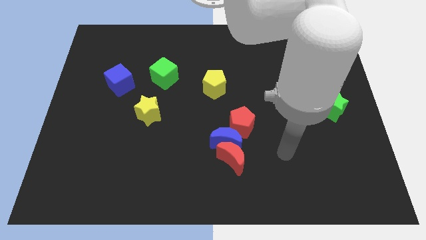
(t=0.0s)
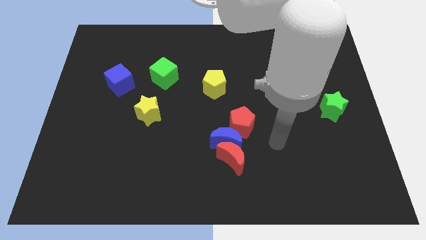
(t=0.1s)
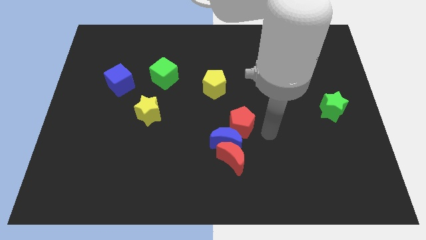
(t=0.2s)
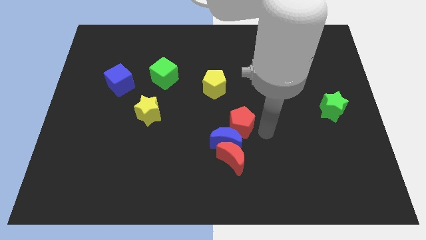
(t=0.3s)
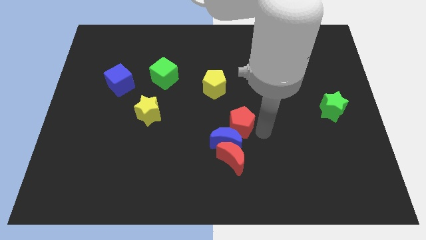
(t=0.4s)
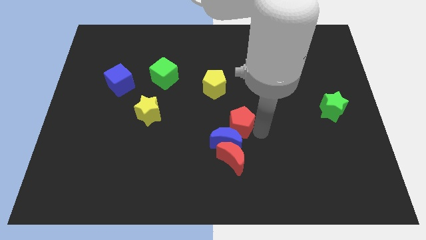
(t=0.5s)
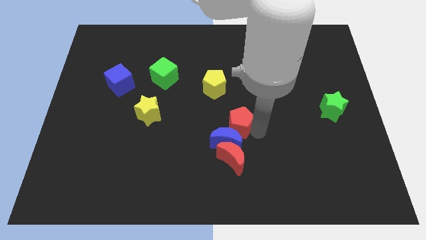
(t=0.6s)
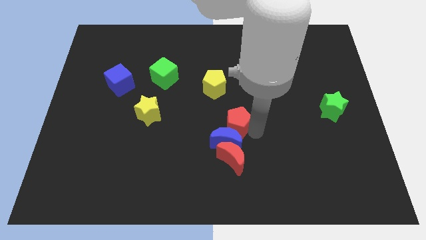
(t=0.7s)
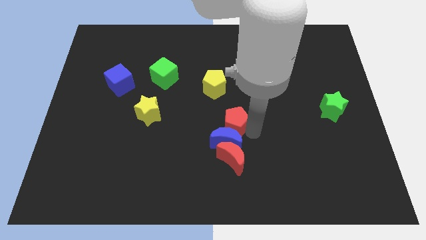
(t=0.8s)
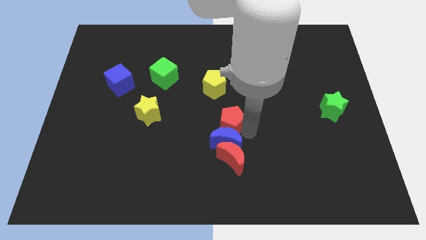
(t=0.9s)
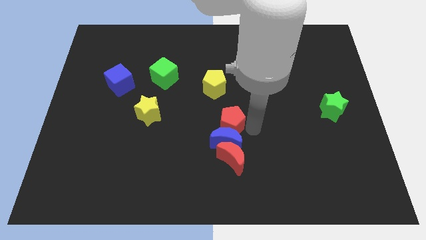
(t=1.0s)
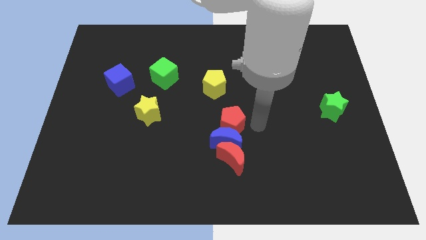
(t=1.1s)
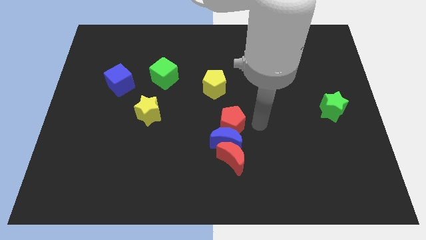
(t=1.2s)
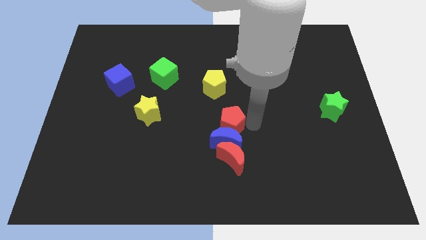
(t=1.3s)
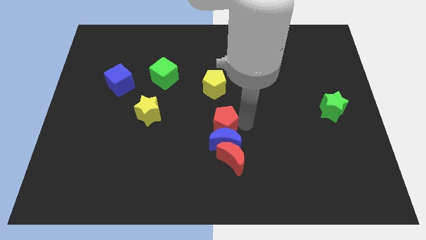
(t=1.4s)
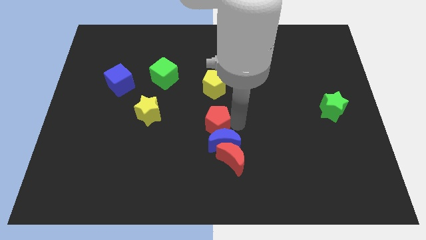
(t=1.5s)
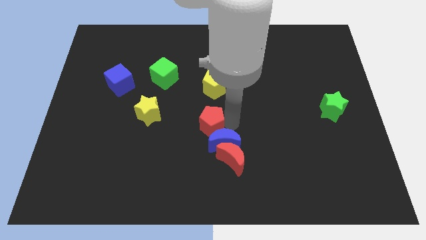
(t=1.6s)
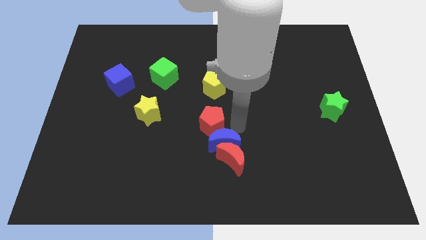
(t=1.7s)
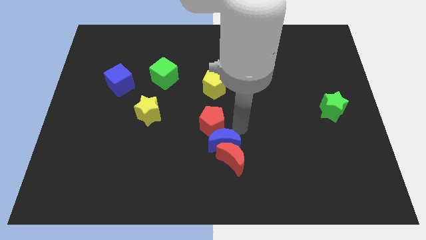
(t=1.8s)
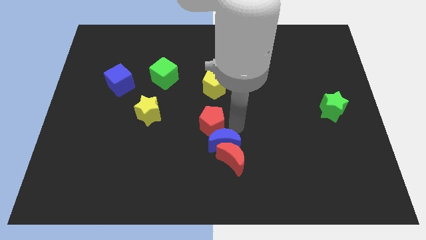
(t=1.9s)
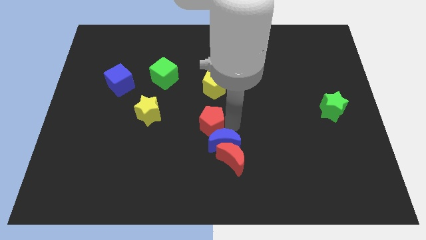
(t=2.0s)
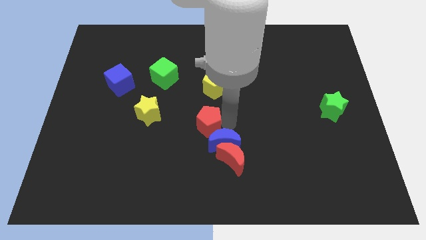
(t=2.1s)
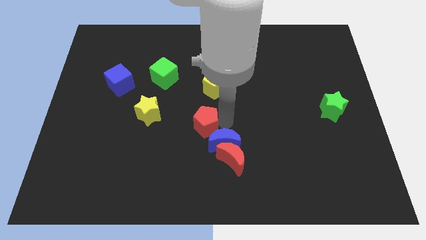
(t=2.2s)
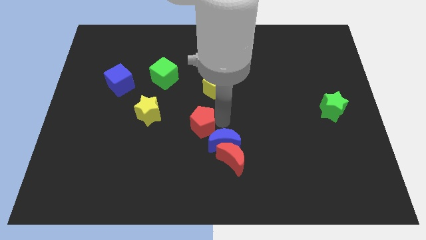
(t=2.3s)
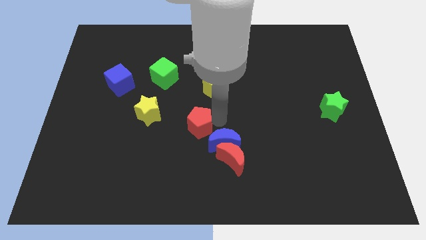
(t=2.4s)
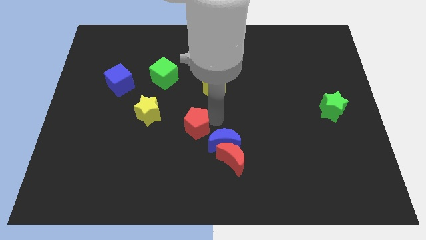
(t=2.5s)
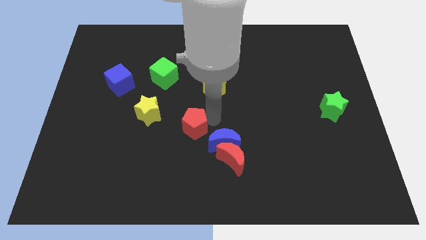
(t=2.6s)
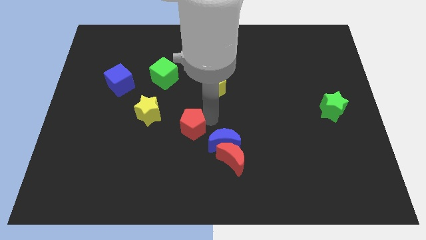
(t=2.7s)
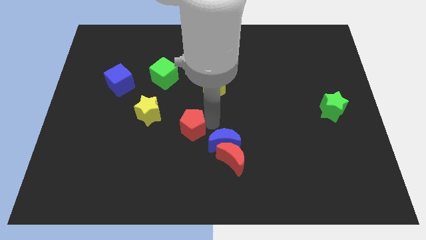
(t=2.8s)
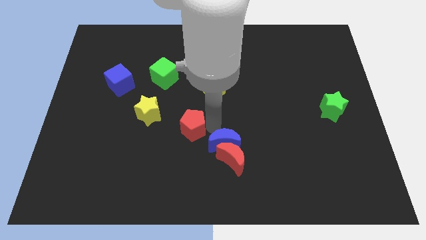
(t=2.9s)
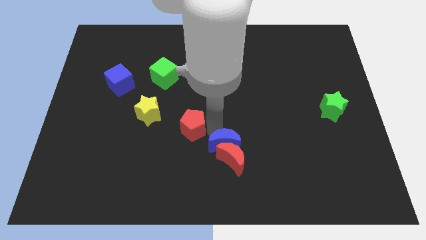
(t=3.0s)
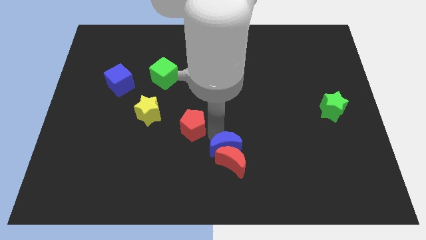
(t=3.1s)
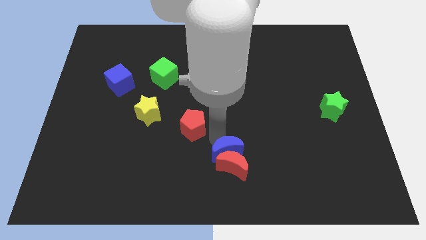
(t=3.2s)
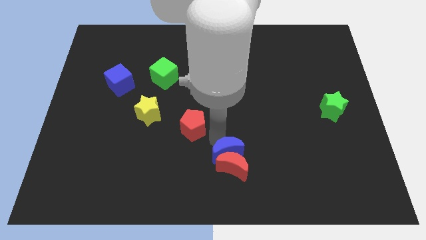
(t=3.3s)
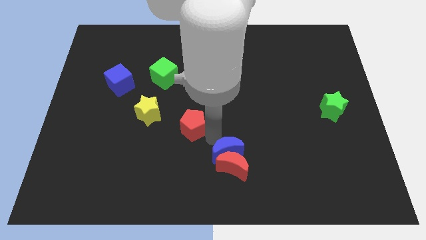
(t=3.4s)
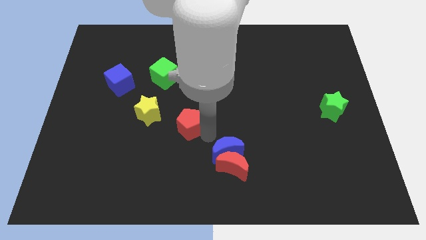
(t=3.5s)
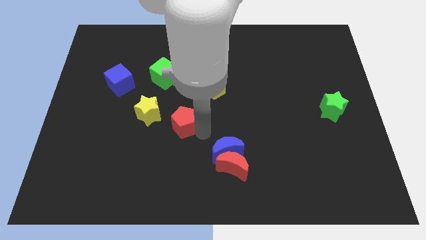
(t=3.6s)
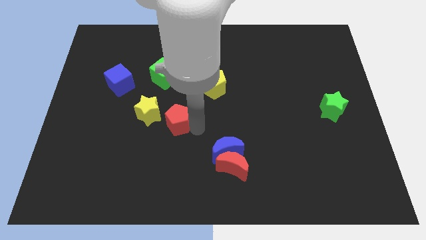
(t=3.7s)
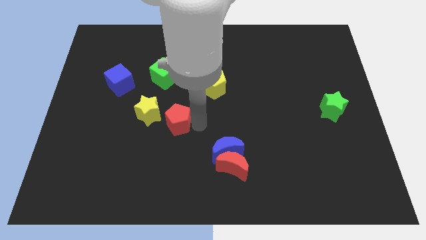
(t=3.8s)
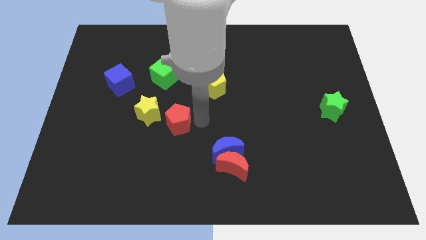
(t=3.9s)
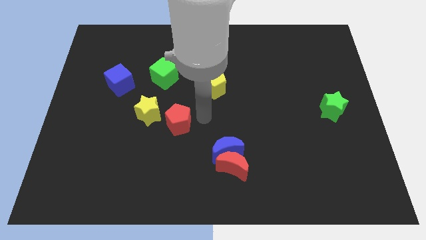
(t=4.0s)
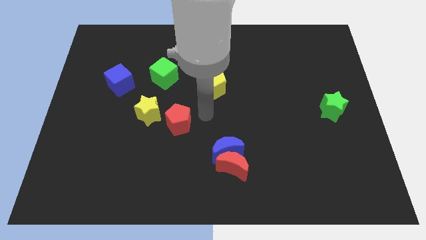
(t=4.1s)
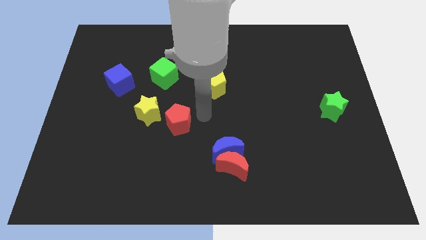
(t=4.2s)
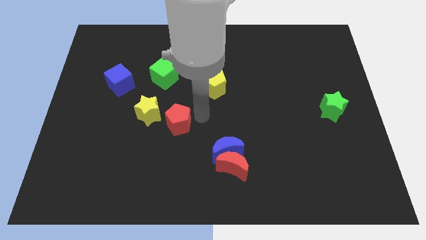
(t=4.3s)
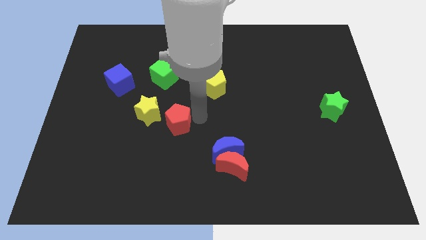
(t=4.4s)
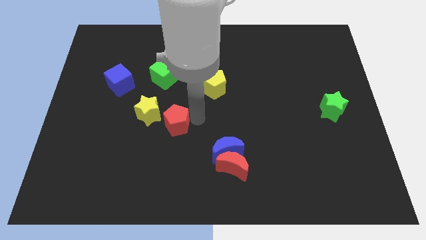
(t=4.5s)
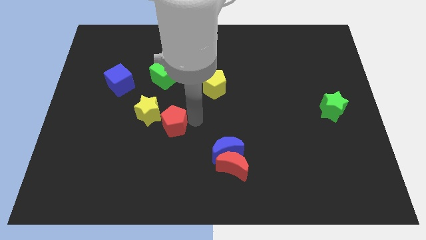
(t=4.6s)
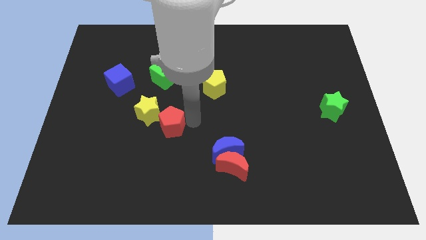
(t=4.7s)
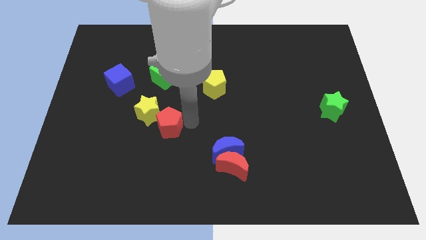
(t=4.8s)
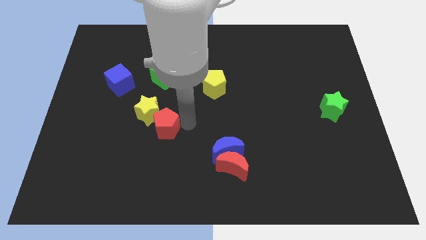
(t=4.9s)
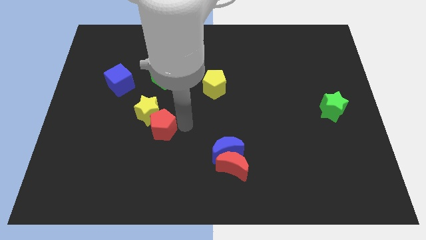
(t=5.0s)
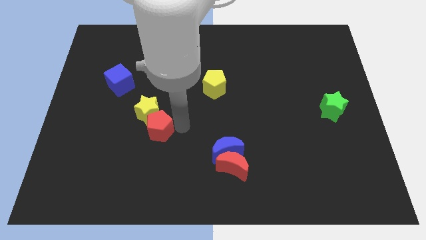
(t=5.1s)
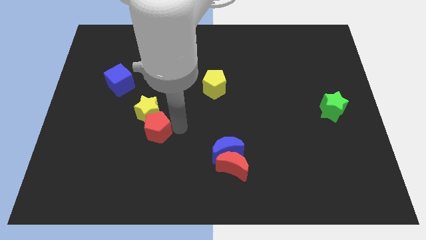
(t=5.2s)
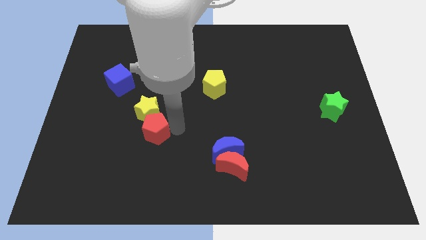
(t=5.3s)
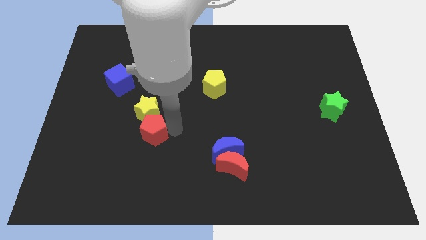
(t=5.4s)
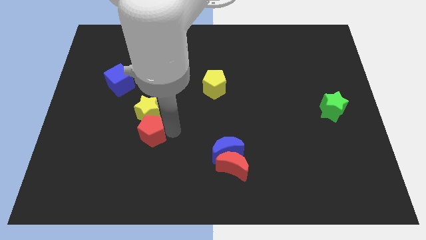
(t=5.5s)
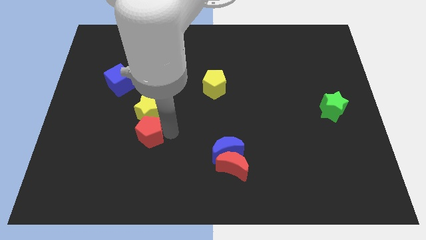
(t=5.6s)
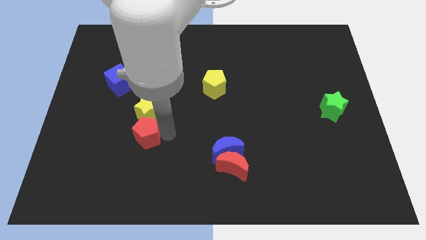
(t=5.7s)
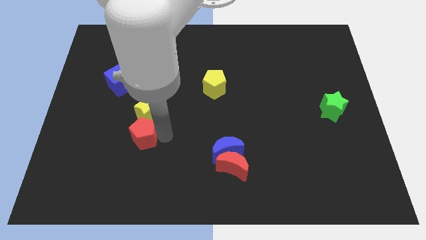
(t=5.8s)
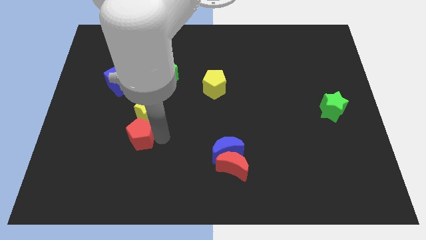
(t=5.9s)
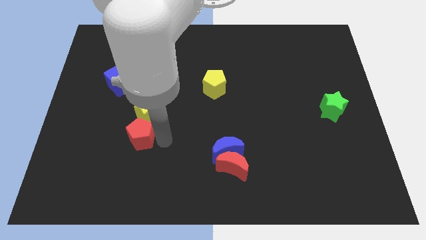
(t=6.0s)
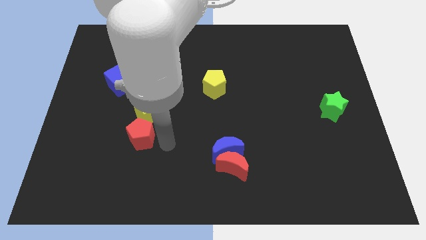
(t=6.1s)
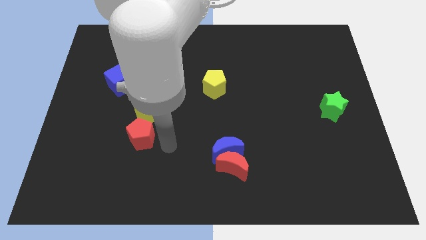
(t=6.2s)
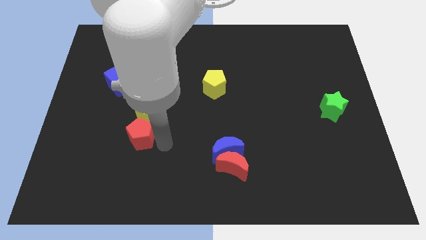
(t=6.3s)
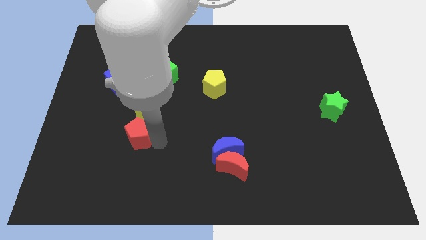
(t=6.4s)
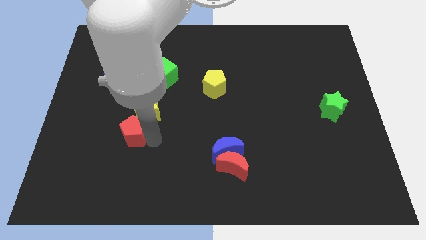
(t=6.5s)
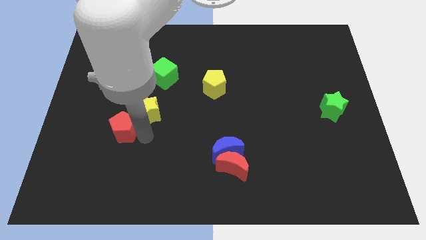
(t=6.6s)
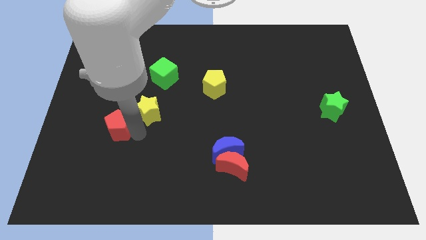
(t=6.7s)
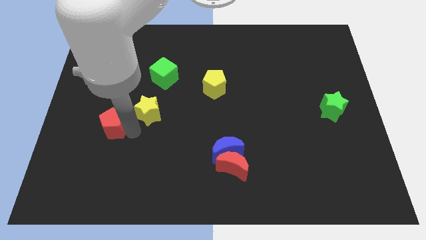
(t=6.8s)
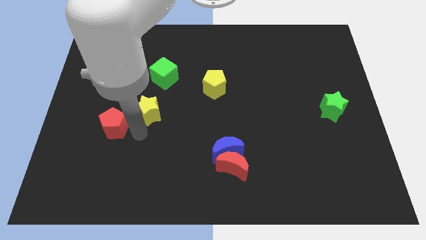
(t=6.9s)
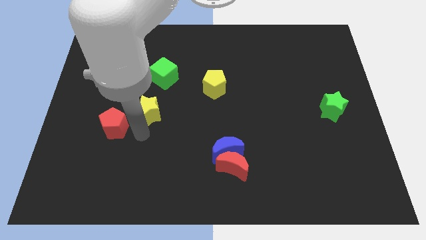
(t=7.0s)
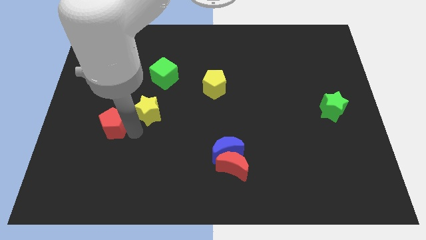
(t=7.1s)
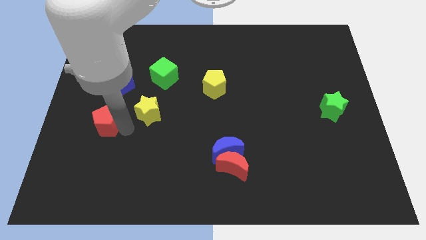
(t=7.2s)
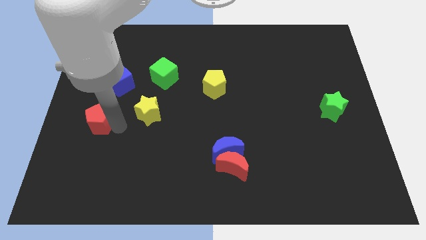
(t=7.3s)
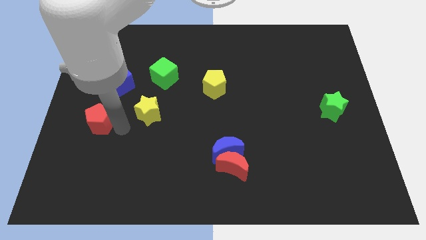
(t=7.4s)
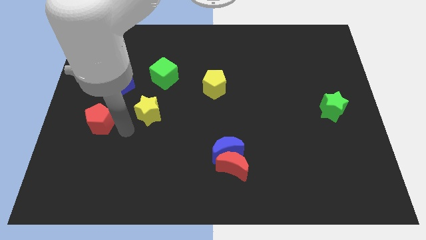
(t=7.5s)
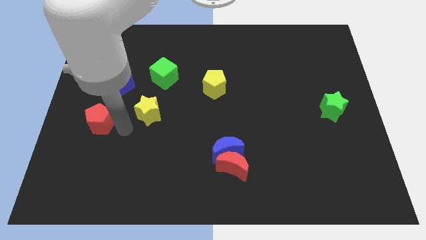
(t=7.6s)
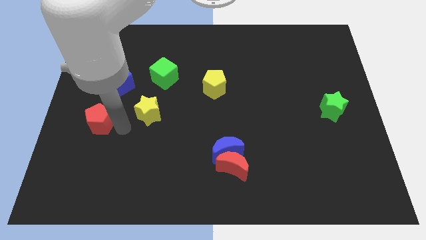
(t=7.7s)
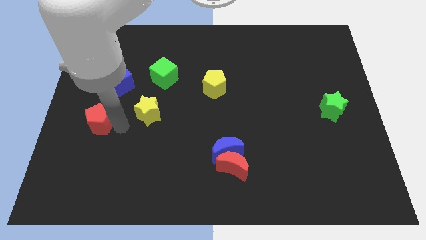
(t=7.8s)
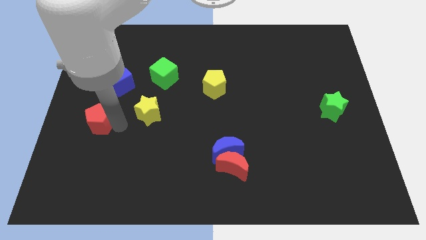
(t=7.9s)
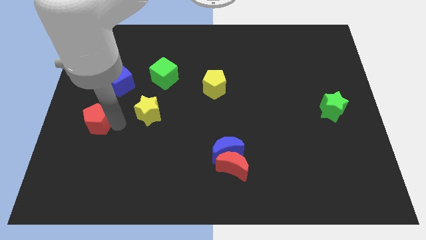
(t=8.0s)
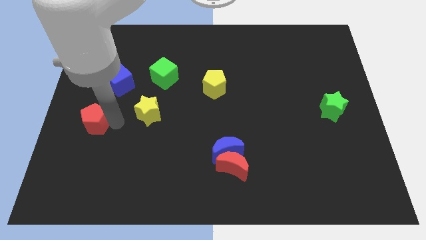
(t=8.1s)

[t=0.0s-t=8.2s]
slide the red pentagon to the left side of the board
